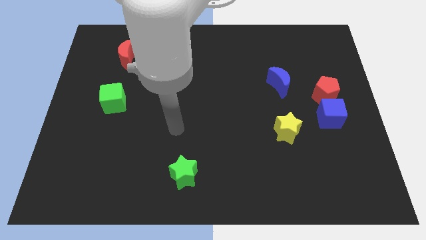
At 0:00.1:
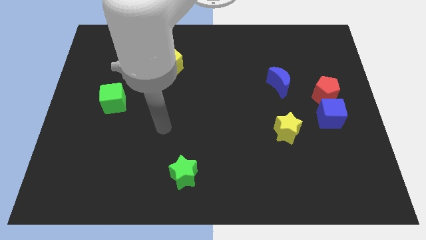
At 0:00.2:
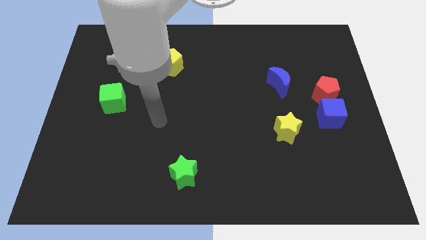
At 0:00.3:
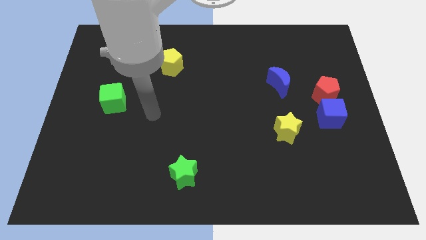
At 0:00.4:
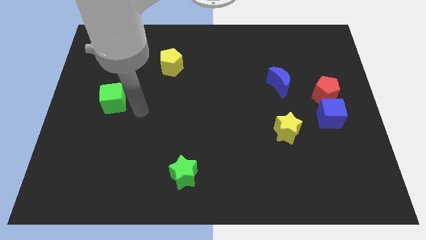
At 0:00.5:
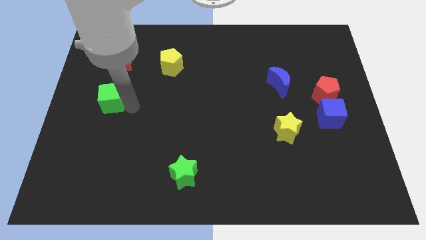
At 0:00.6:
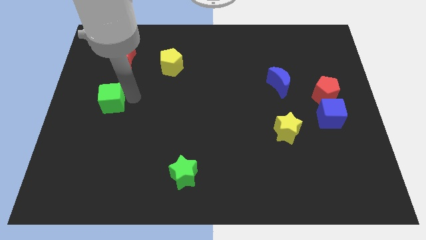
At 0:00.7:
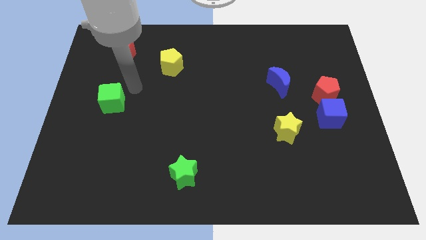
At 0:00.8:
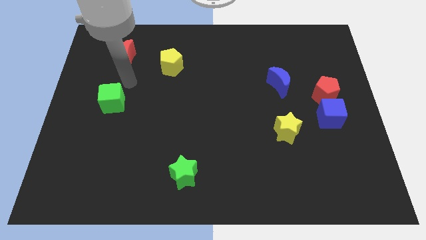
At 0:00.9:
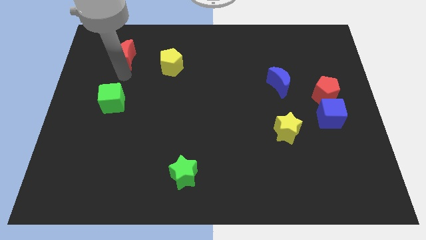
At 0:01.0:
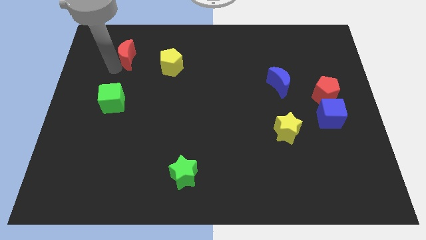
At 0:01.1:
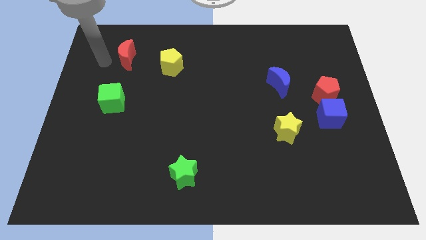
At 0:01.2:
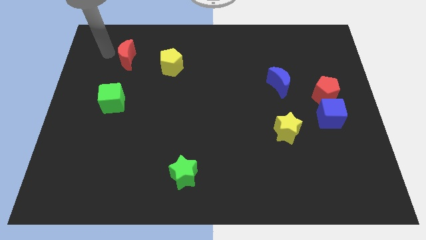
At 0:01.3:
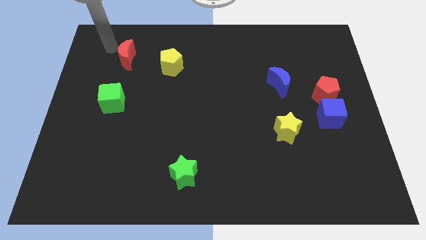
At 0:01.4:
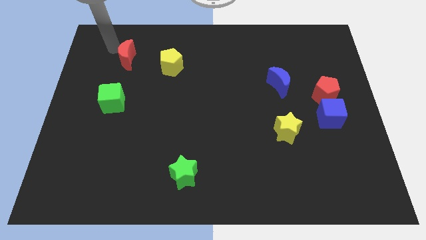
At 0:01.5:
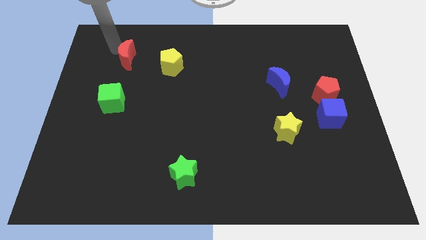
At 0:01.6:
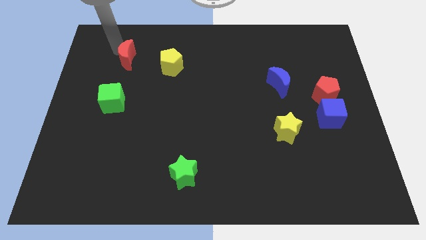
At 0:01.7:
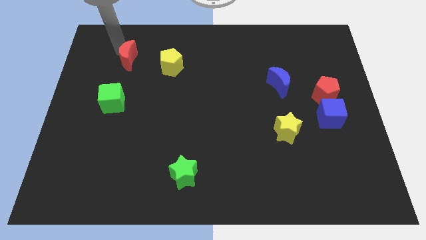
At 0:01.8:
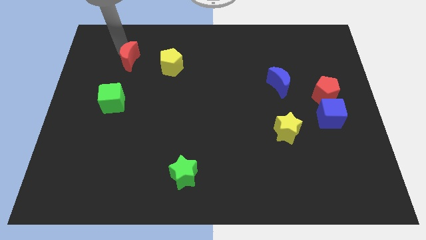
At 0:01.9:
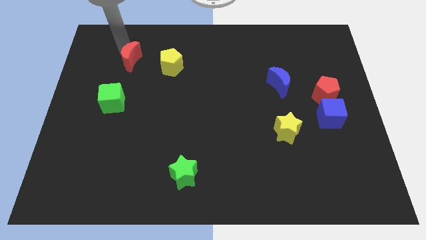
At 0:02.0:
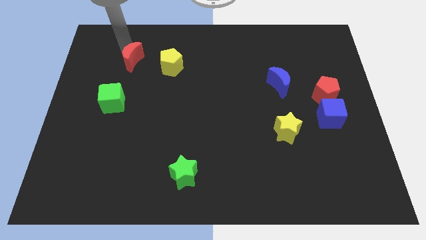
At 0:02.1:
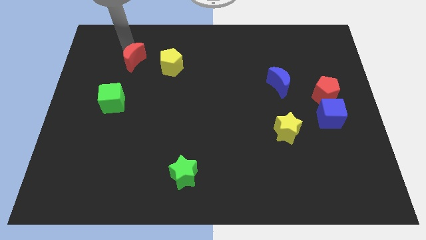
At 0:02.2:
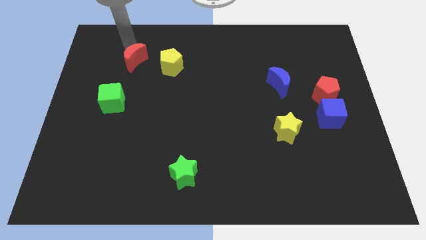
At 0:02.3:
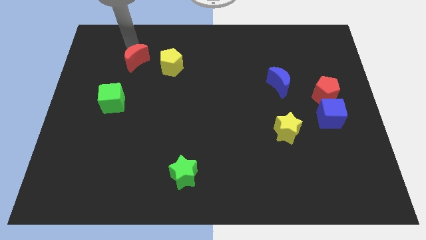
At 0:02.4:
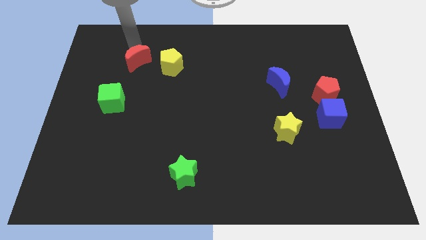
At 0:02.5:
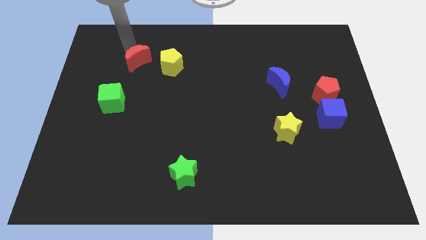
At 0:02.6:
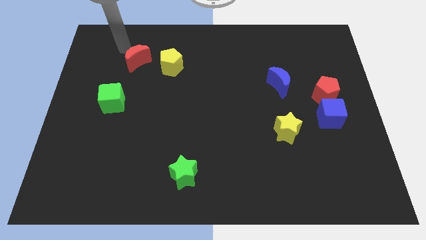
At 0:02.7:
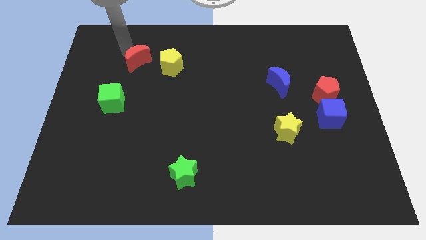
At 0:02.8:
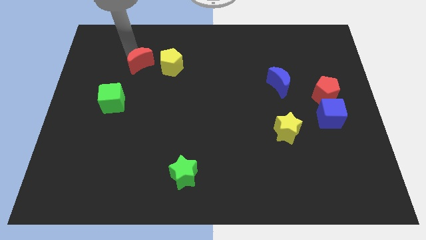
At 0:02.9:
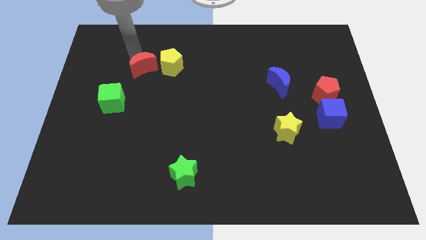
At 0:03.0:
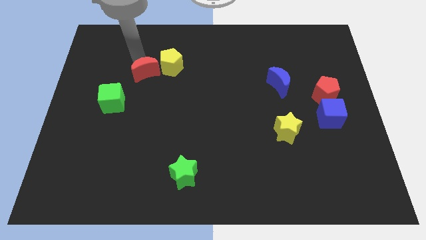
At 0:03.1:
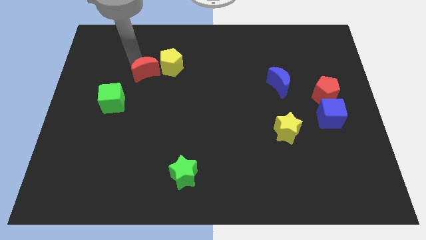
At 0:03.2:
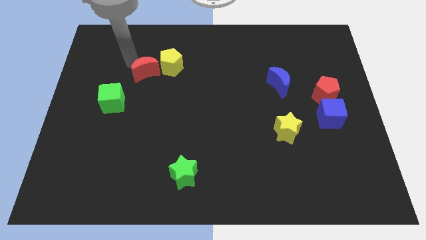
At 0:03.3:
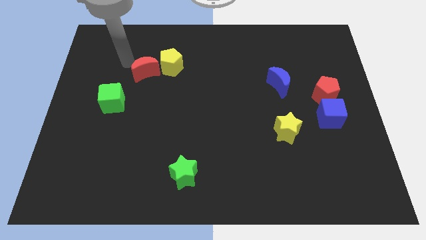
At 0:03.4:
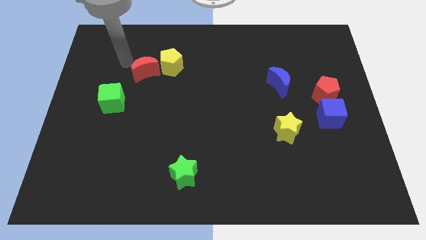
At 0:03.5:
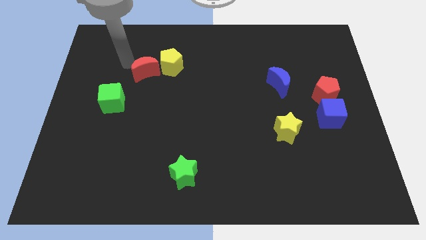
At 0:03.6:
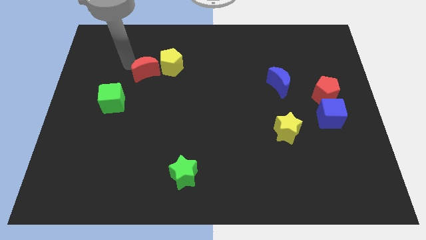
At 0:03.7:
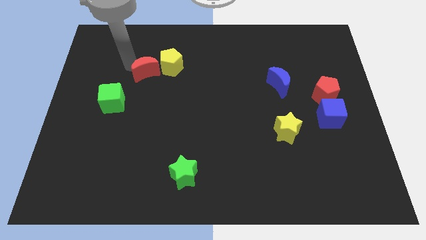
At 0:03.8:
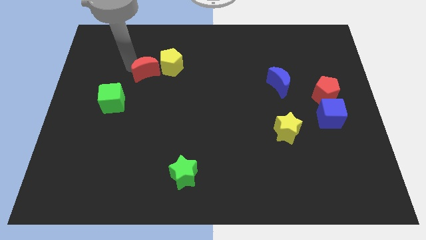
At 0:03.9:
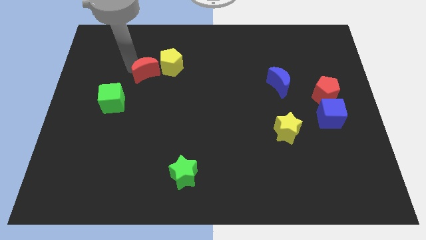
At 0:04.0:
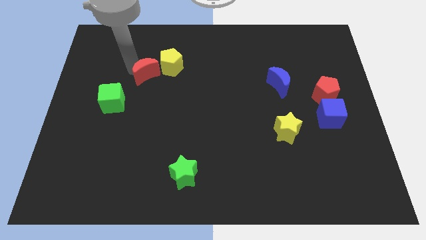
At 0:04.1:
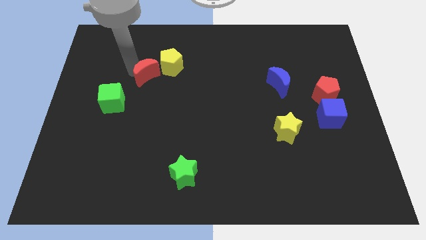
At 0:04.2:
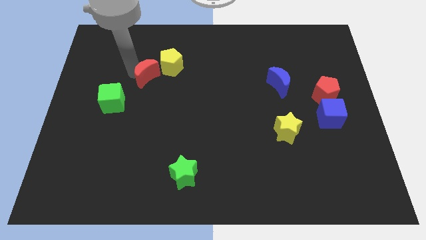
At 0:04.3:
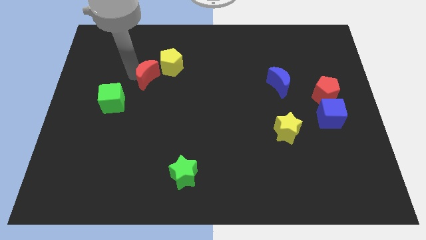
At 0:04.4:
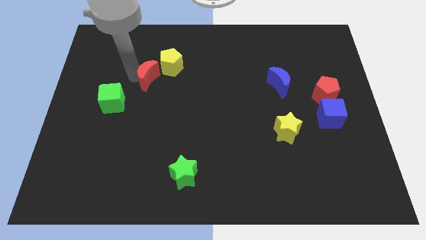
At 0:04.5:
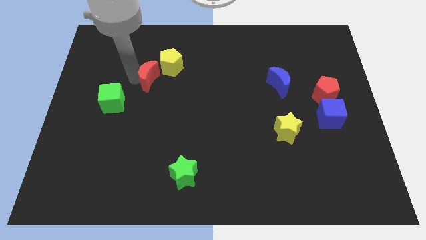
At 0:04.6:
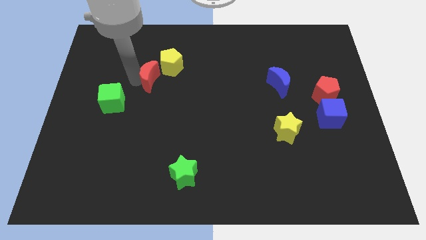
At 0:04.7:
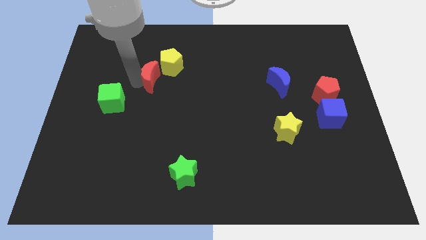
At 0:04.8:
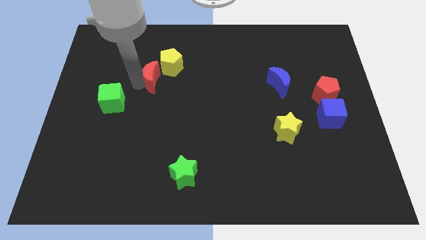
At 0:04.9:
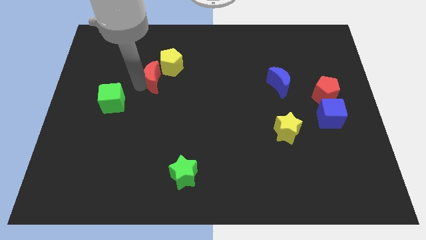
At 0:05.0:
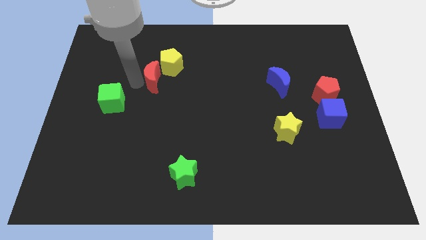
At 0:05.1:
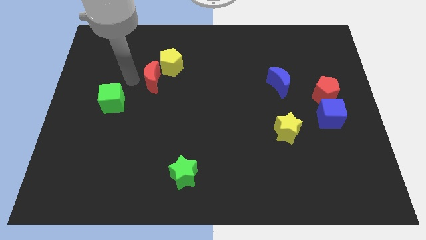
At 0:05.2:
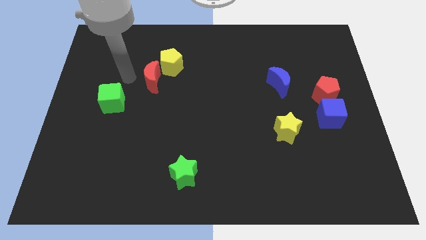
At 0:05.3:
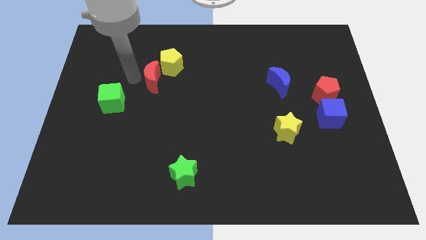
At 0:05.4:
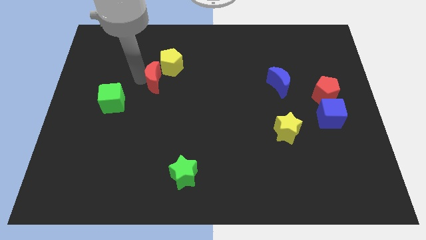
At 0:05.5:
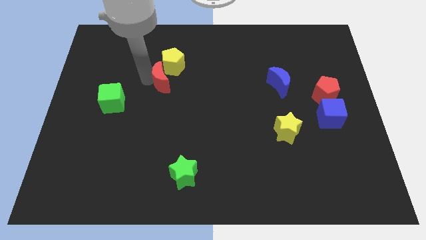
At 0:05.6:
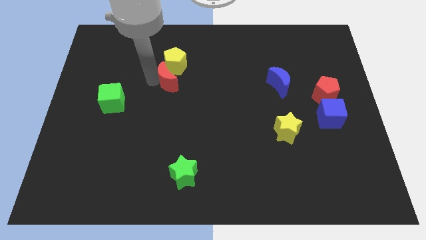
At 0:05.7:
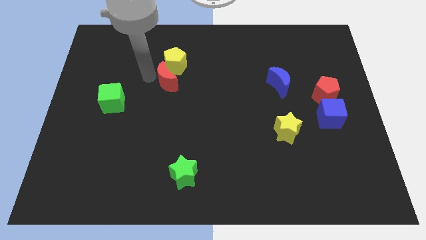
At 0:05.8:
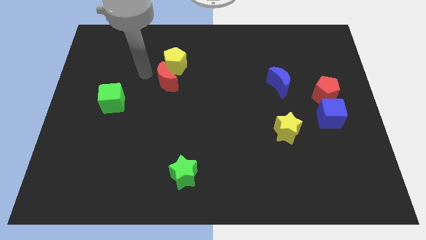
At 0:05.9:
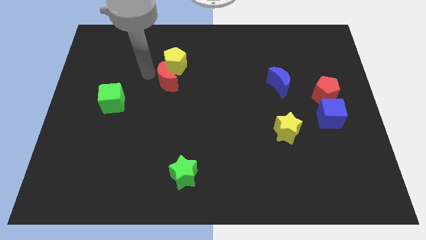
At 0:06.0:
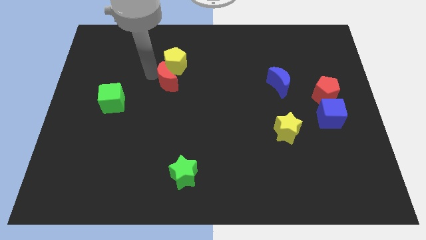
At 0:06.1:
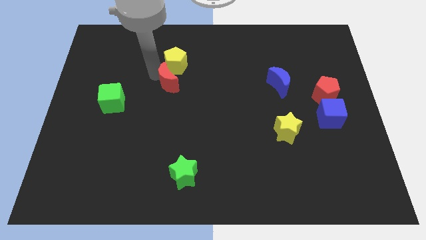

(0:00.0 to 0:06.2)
put the red moon to the center
